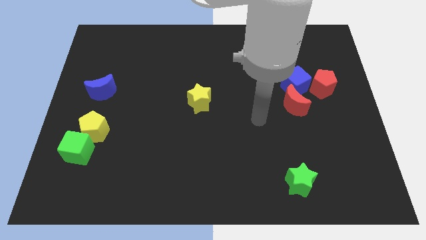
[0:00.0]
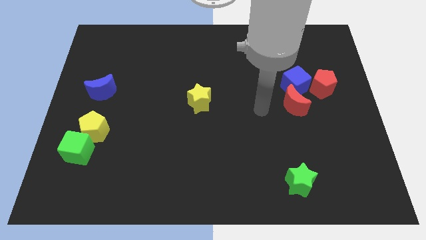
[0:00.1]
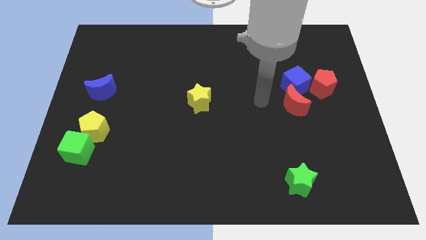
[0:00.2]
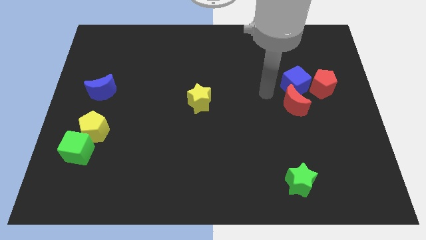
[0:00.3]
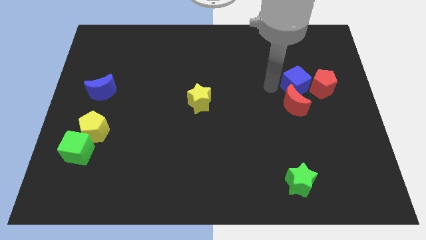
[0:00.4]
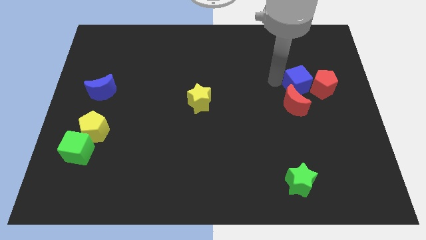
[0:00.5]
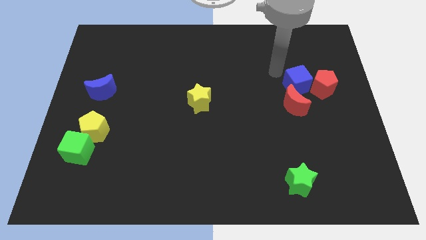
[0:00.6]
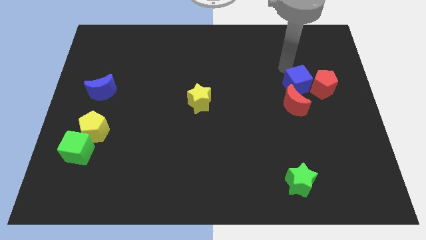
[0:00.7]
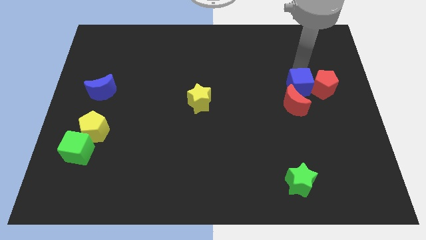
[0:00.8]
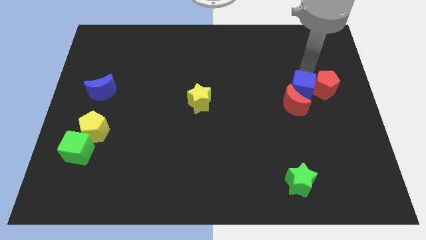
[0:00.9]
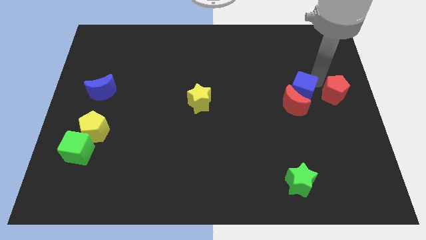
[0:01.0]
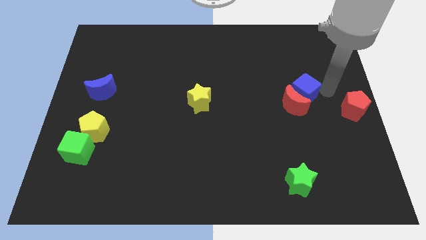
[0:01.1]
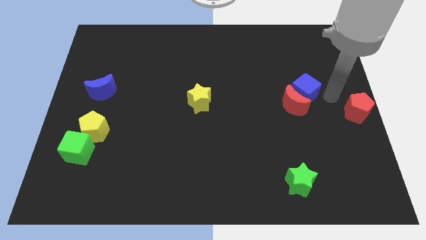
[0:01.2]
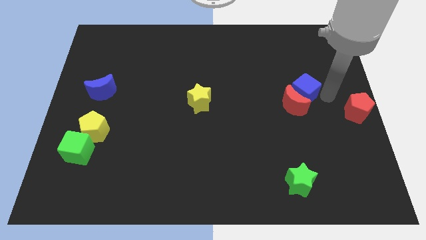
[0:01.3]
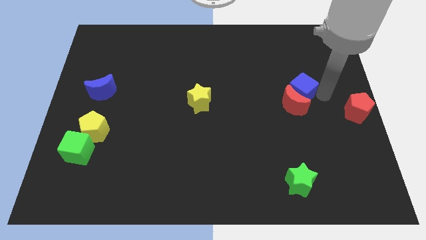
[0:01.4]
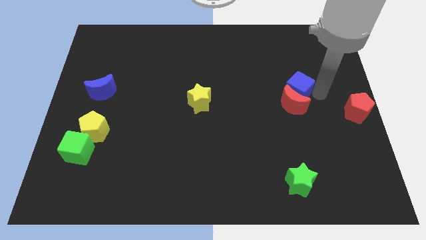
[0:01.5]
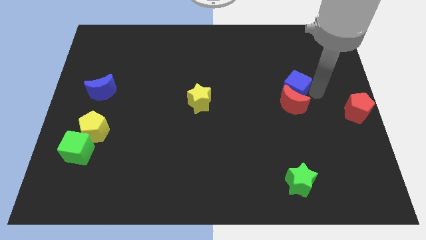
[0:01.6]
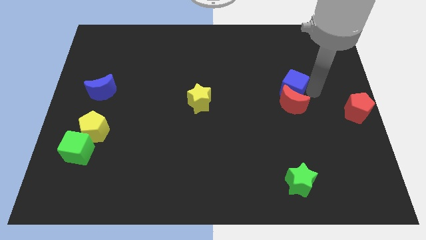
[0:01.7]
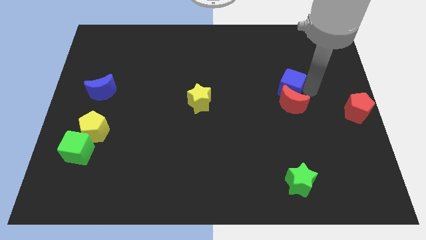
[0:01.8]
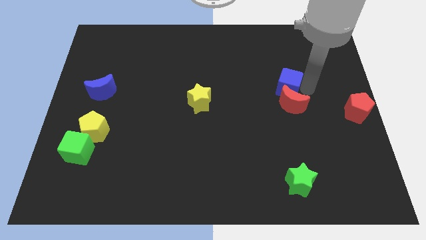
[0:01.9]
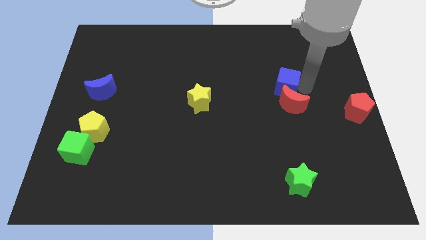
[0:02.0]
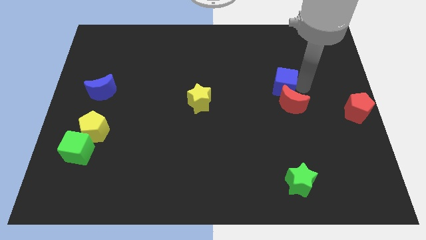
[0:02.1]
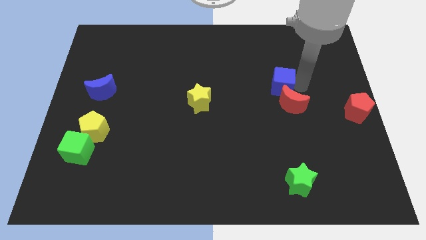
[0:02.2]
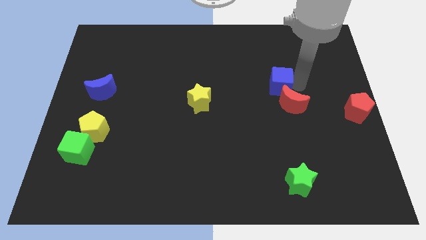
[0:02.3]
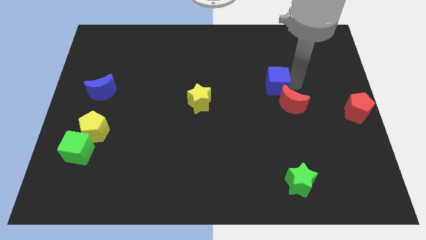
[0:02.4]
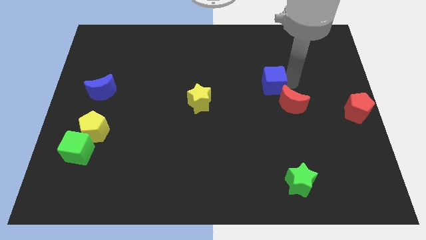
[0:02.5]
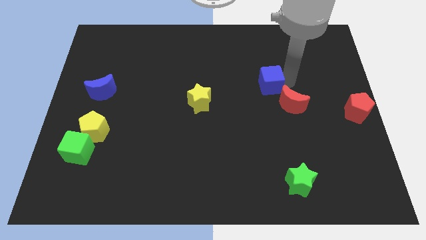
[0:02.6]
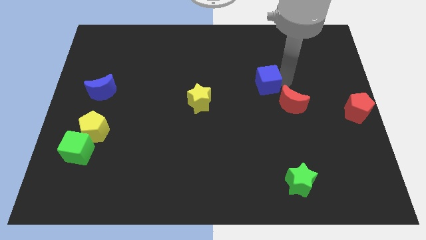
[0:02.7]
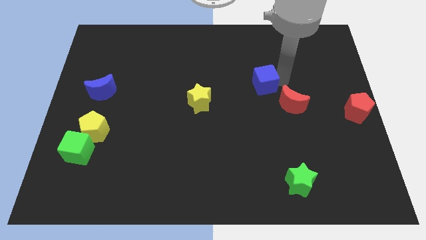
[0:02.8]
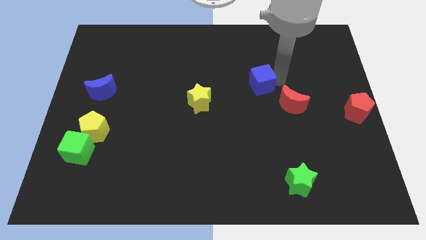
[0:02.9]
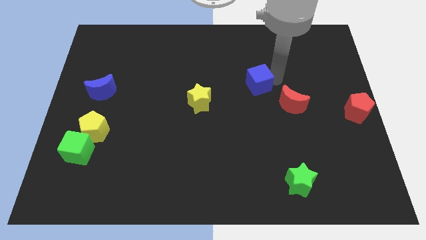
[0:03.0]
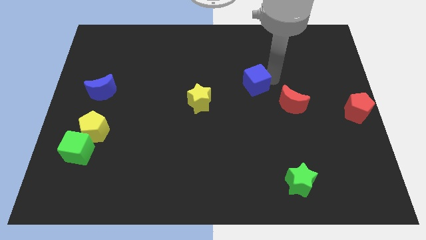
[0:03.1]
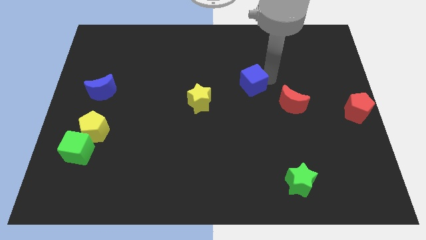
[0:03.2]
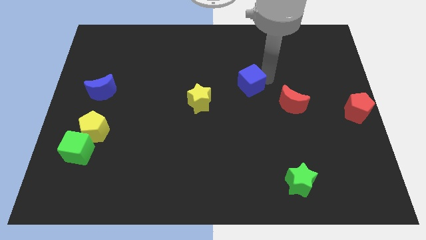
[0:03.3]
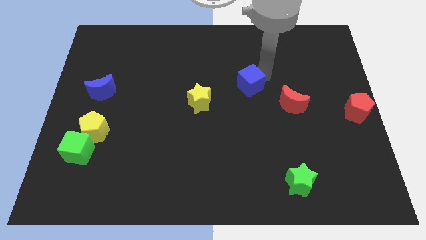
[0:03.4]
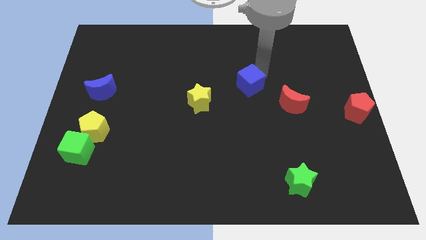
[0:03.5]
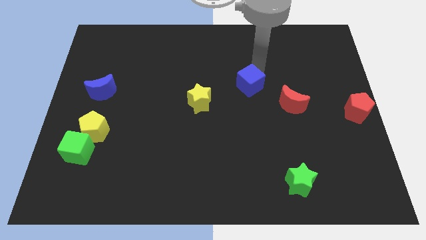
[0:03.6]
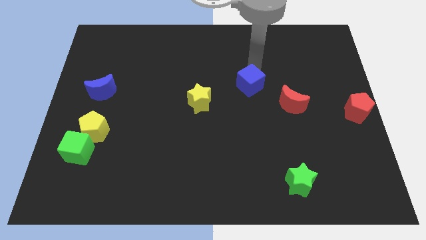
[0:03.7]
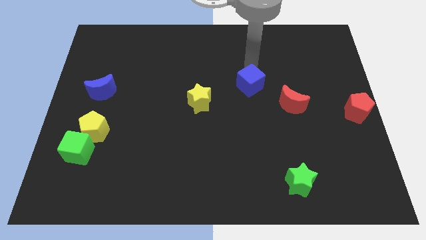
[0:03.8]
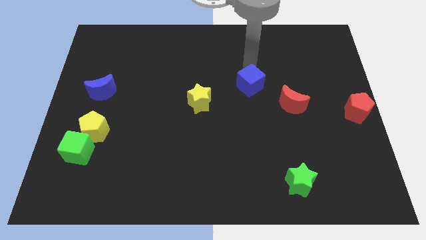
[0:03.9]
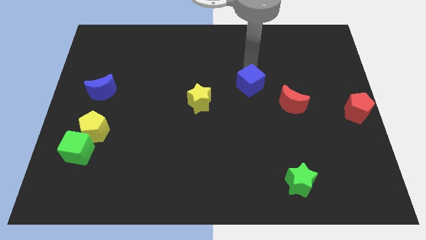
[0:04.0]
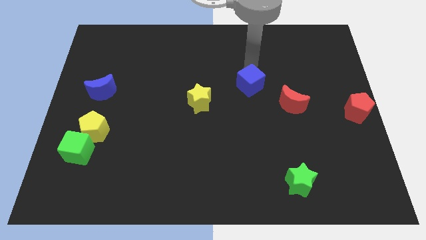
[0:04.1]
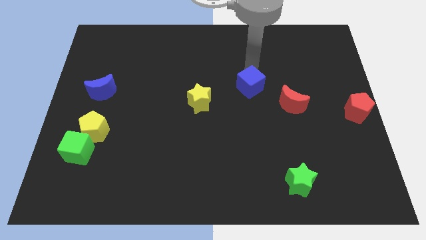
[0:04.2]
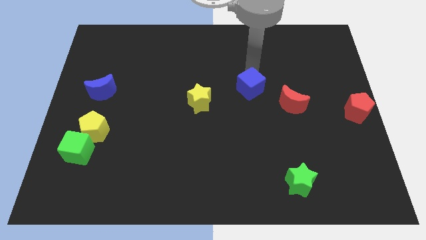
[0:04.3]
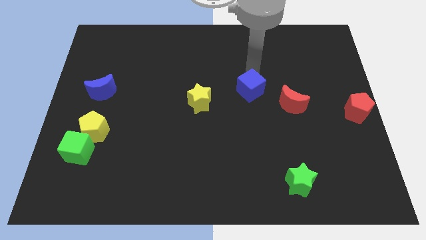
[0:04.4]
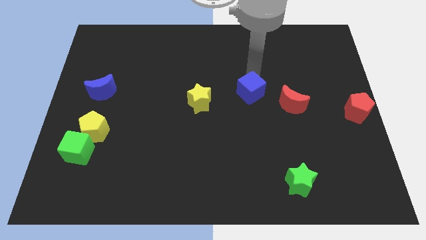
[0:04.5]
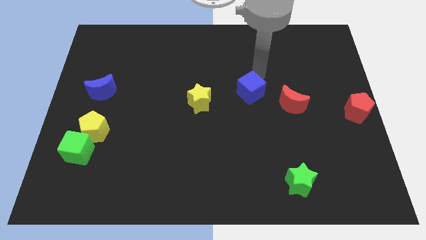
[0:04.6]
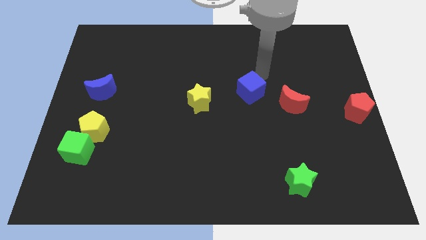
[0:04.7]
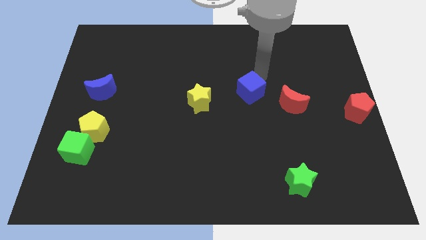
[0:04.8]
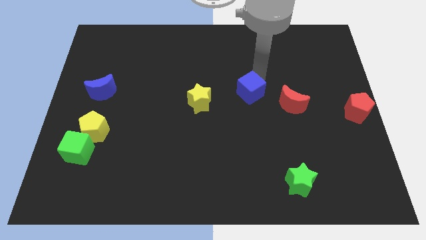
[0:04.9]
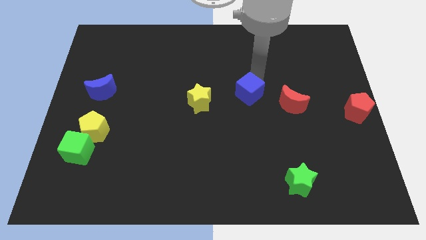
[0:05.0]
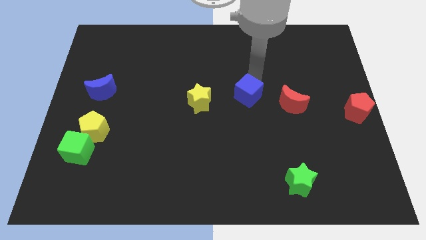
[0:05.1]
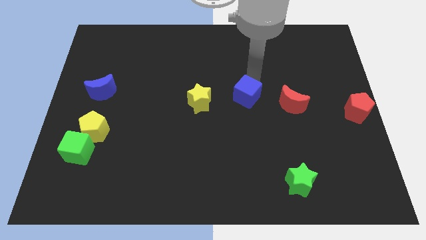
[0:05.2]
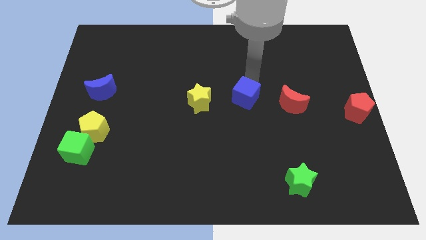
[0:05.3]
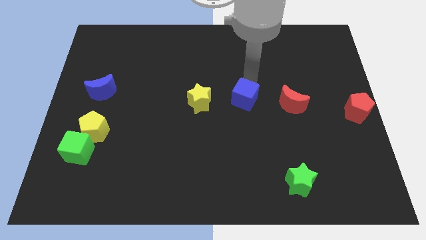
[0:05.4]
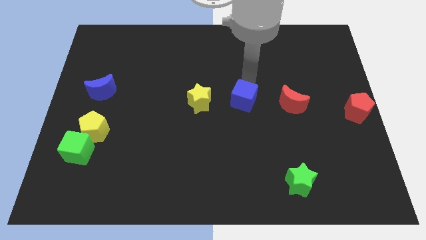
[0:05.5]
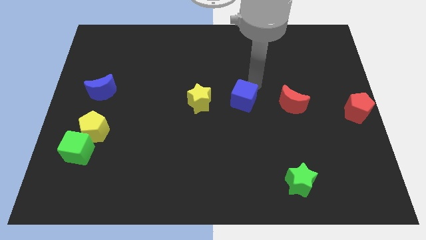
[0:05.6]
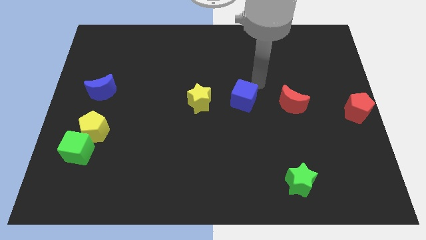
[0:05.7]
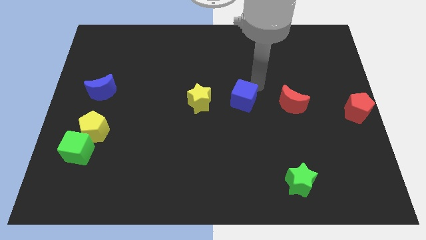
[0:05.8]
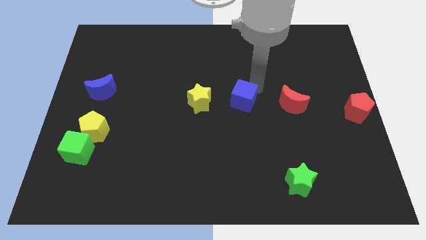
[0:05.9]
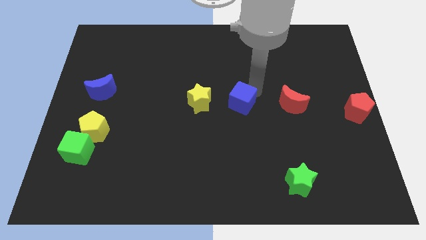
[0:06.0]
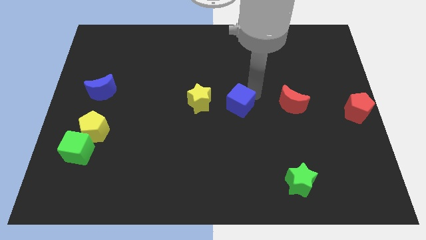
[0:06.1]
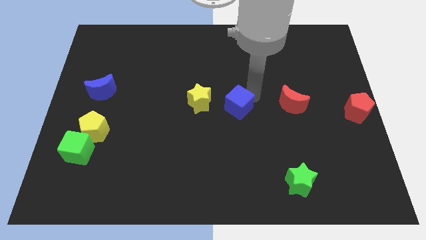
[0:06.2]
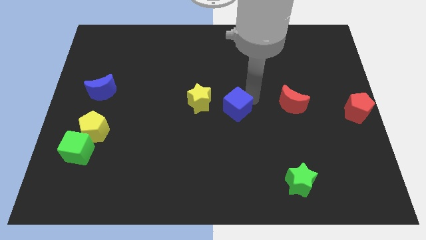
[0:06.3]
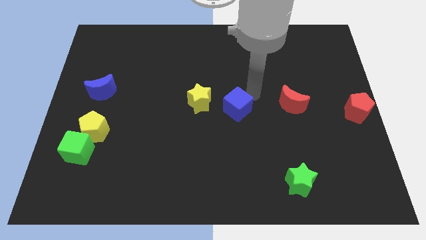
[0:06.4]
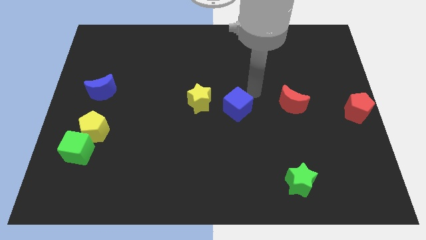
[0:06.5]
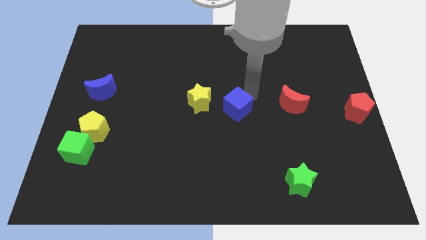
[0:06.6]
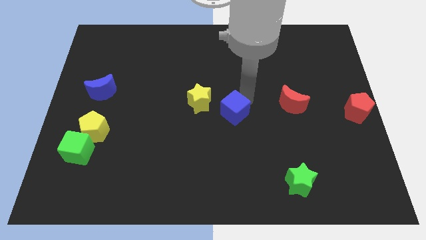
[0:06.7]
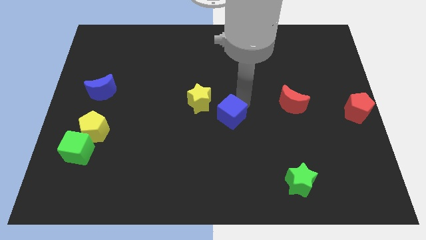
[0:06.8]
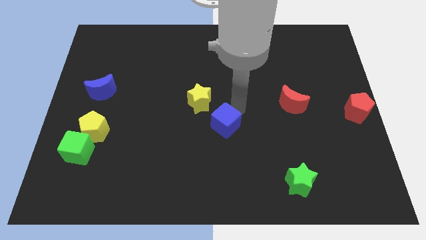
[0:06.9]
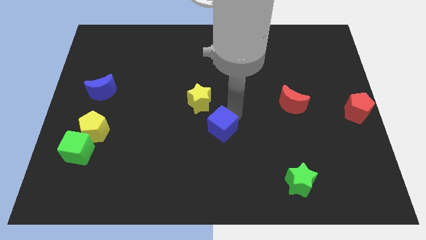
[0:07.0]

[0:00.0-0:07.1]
slide the blue cube below the yellow star
